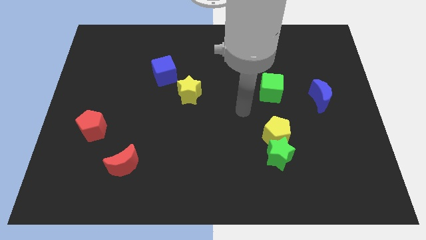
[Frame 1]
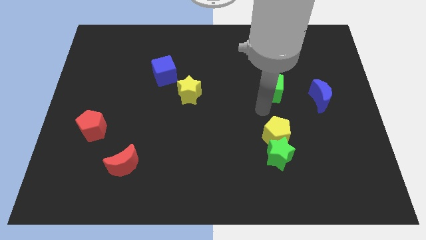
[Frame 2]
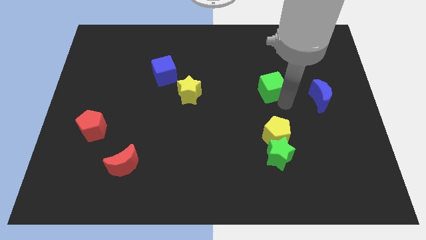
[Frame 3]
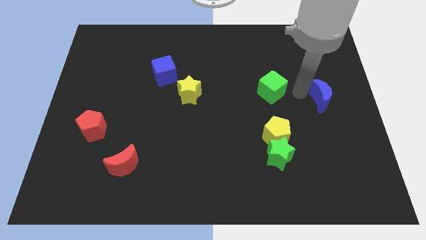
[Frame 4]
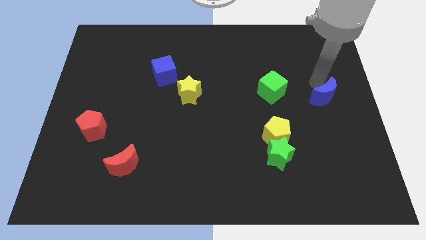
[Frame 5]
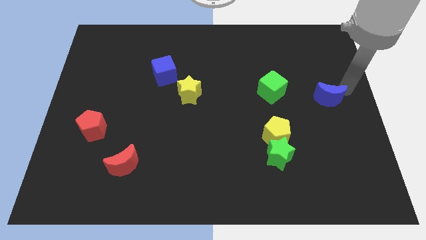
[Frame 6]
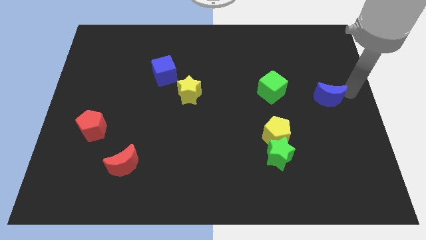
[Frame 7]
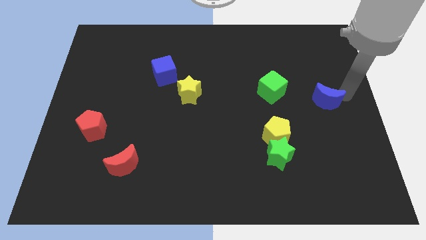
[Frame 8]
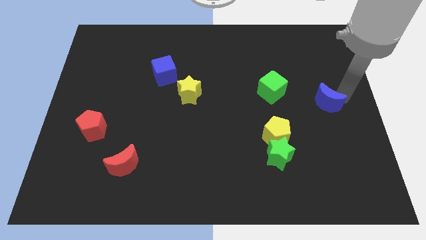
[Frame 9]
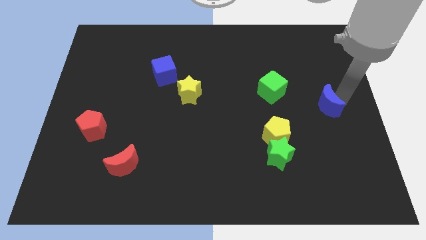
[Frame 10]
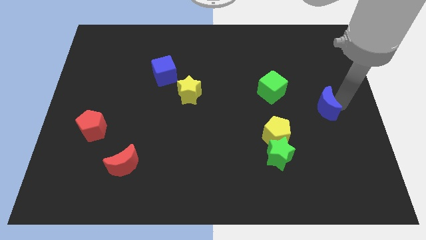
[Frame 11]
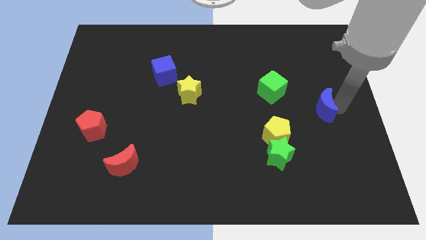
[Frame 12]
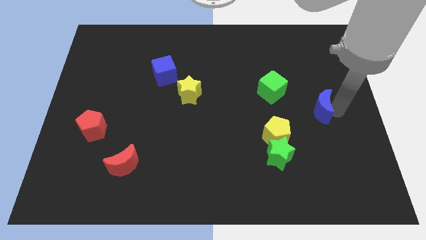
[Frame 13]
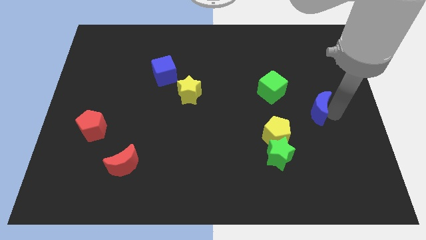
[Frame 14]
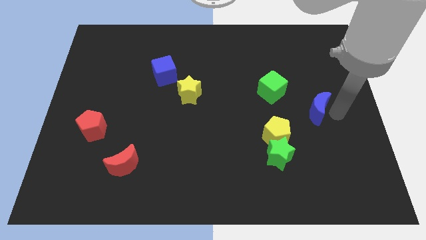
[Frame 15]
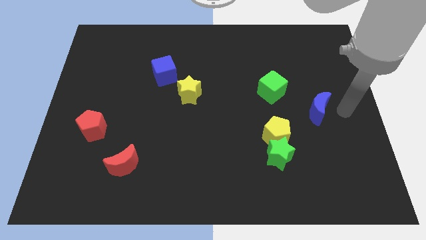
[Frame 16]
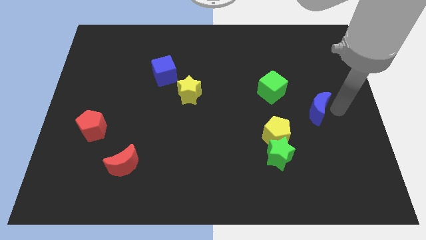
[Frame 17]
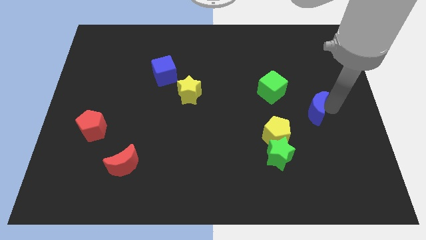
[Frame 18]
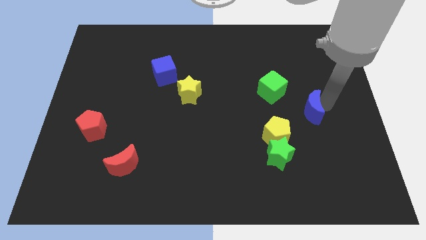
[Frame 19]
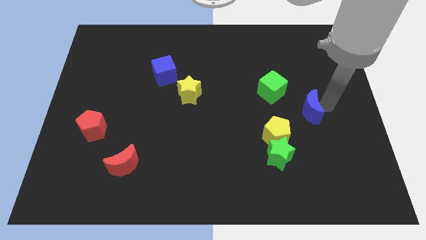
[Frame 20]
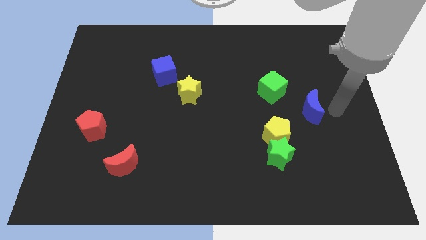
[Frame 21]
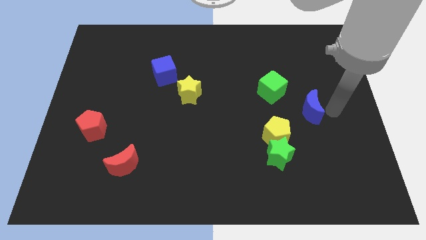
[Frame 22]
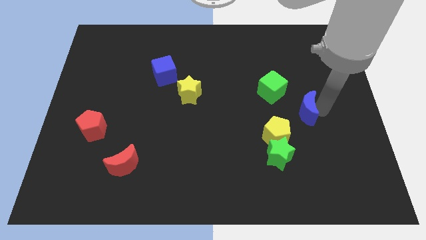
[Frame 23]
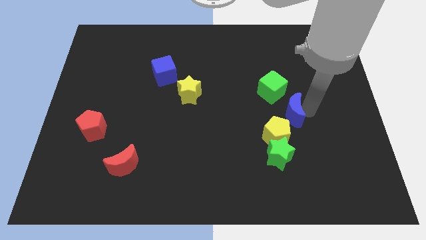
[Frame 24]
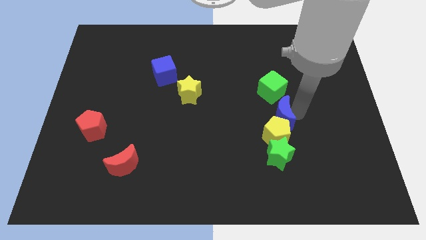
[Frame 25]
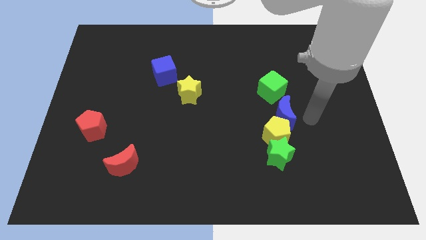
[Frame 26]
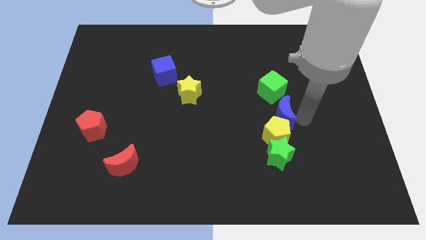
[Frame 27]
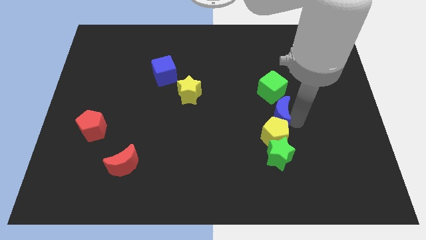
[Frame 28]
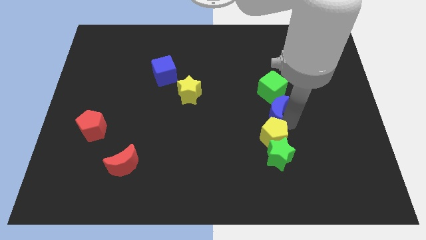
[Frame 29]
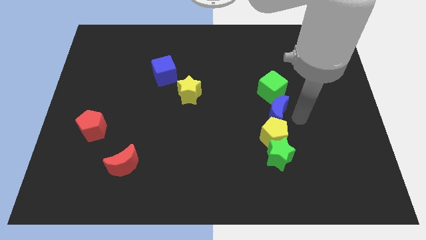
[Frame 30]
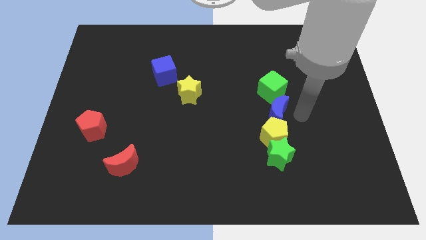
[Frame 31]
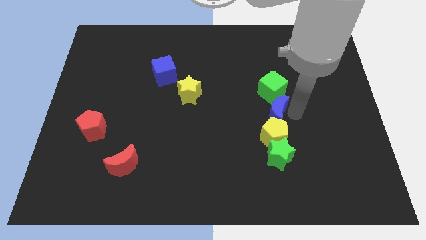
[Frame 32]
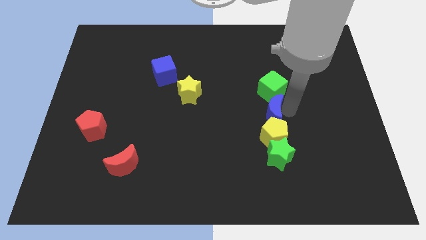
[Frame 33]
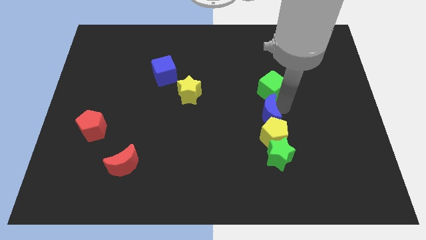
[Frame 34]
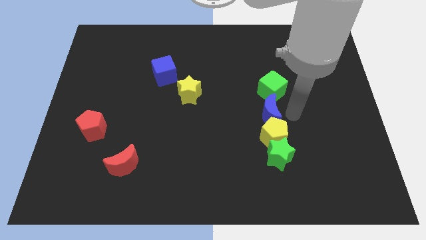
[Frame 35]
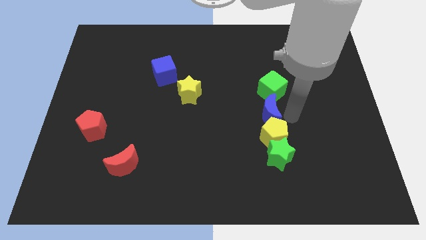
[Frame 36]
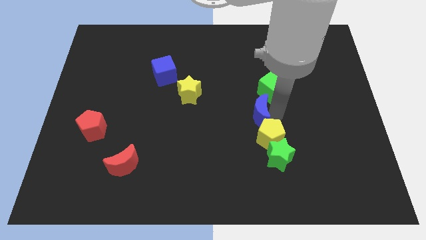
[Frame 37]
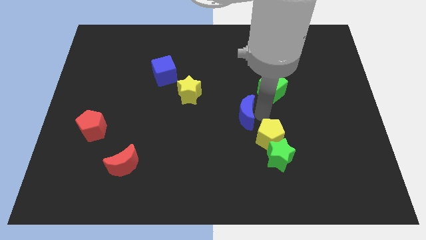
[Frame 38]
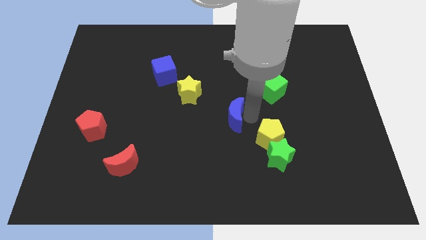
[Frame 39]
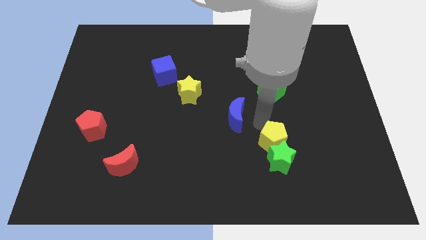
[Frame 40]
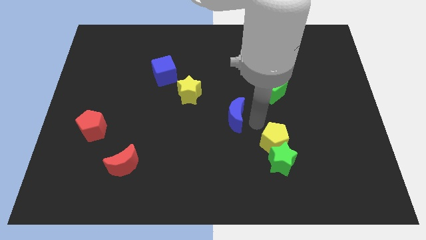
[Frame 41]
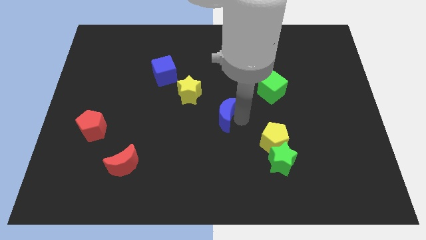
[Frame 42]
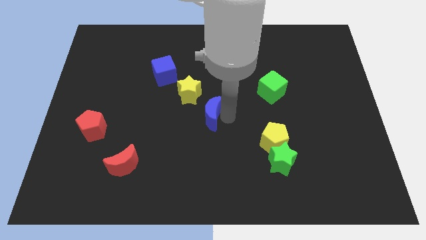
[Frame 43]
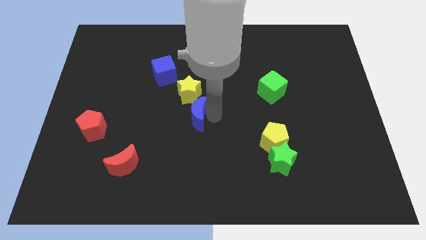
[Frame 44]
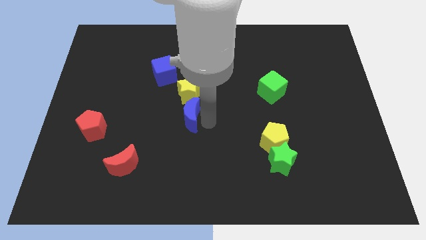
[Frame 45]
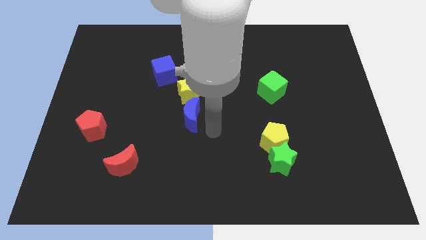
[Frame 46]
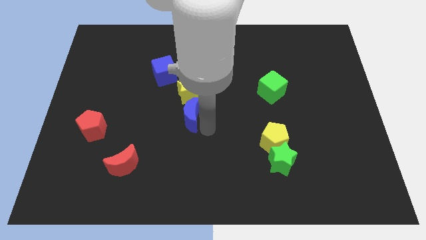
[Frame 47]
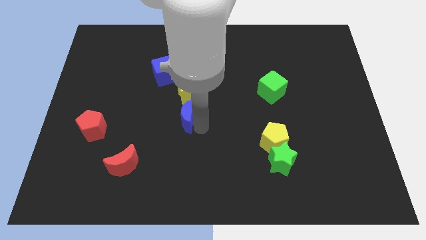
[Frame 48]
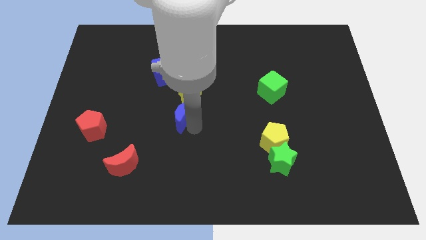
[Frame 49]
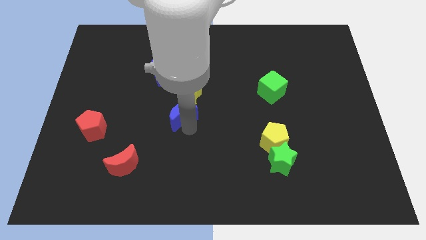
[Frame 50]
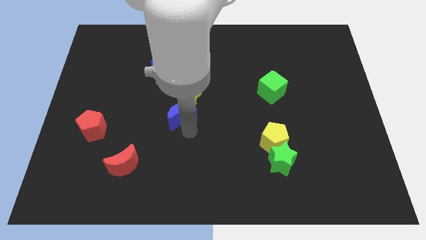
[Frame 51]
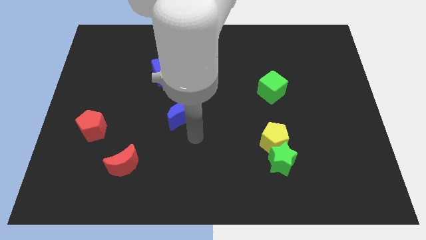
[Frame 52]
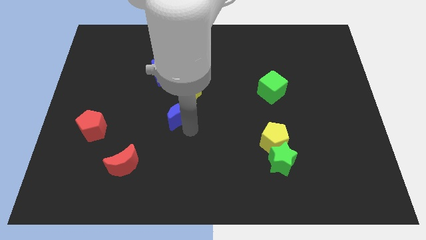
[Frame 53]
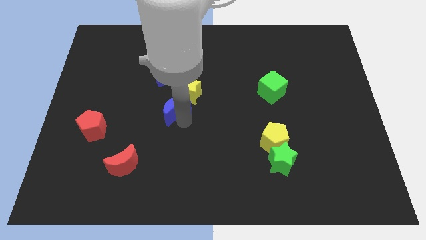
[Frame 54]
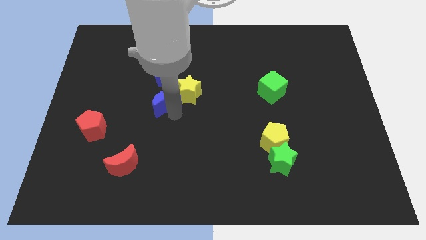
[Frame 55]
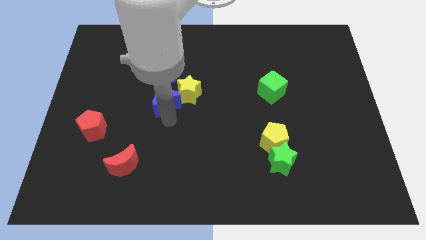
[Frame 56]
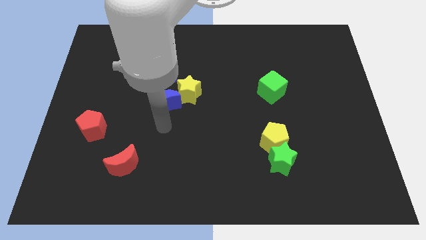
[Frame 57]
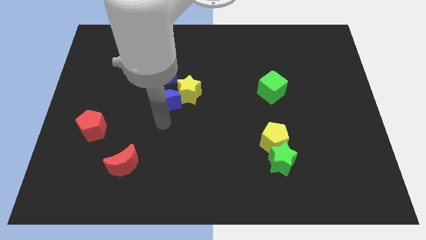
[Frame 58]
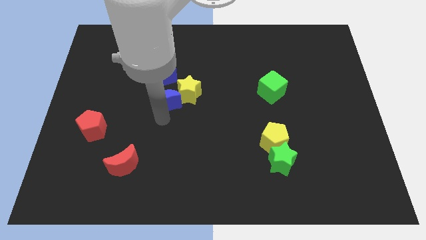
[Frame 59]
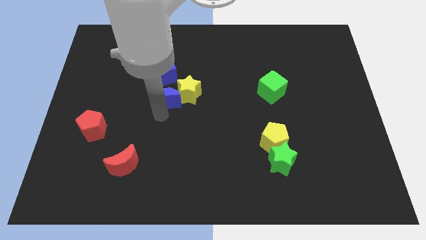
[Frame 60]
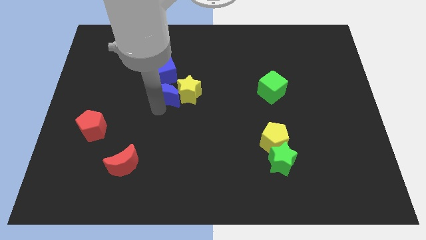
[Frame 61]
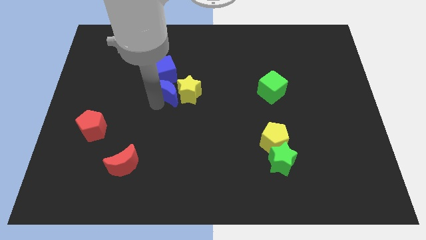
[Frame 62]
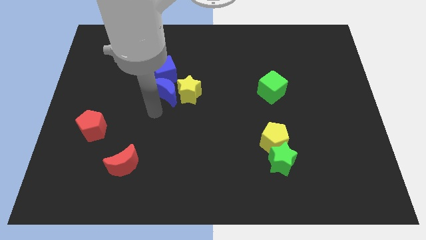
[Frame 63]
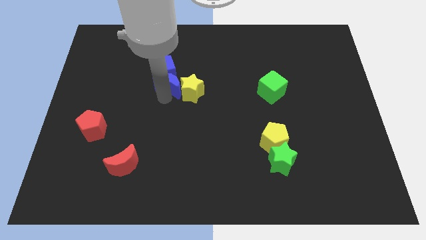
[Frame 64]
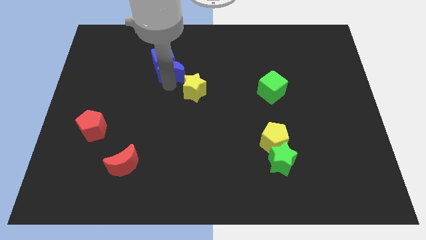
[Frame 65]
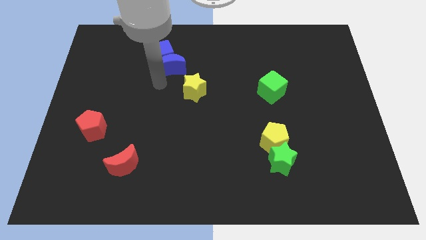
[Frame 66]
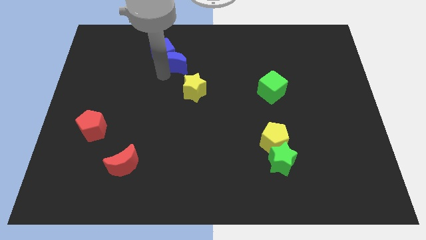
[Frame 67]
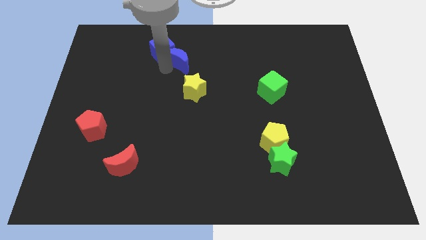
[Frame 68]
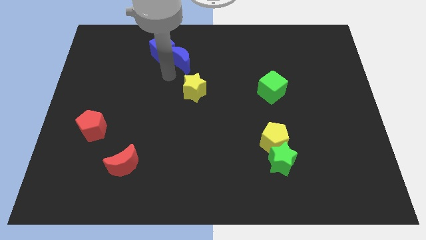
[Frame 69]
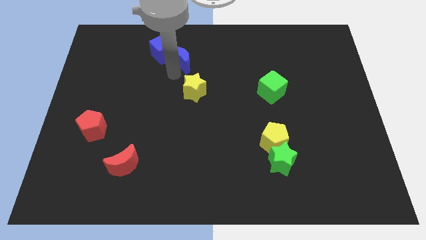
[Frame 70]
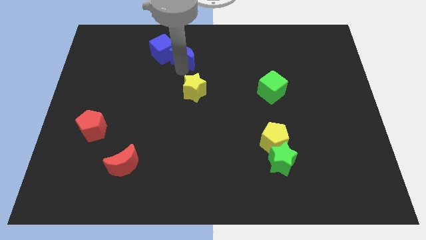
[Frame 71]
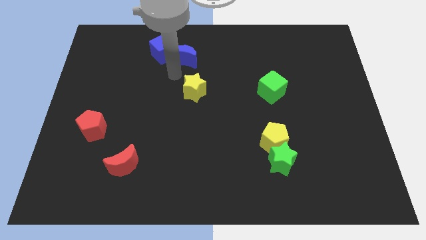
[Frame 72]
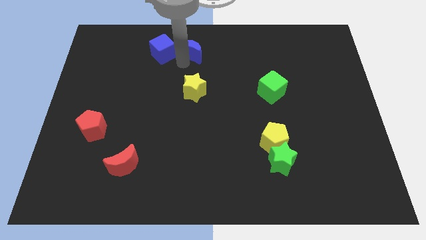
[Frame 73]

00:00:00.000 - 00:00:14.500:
slide the blue moon to the top
